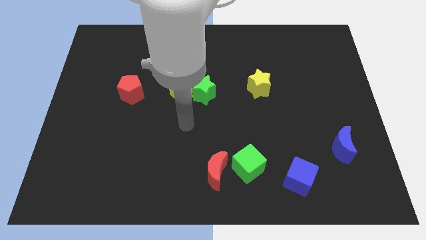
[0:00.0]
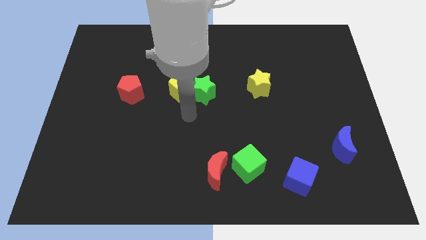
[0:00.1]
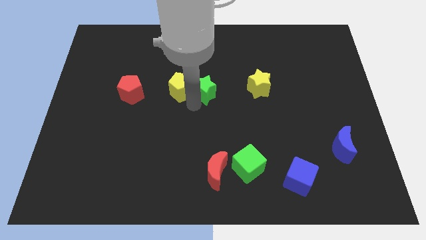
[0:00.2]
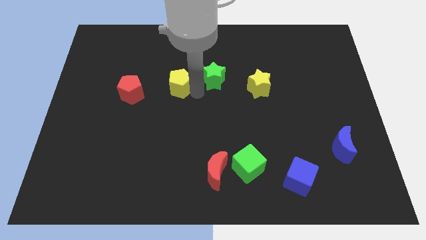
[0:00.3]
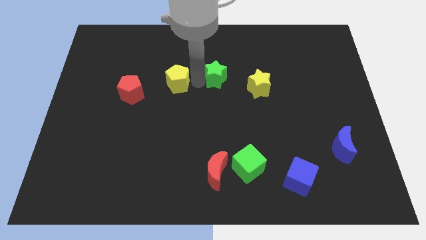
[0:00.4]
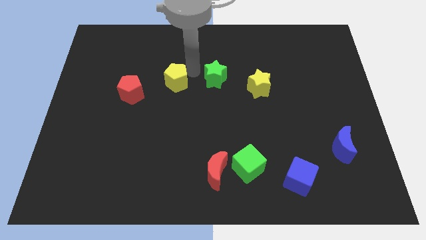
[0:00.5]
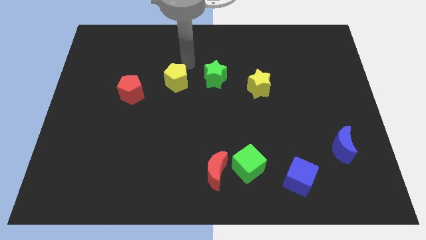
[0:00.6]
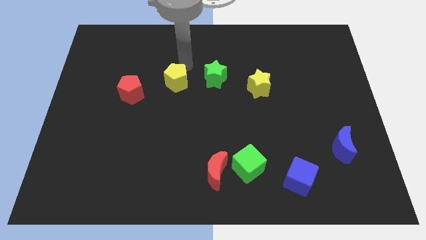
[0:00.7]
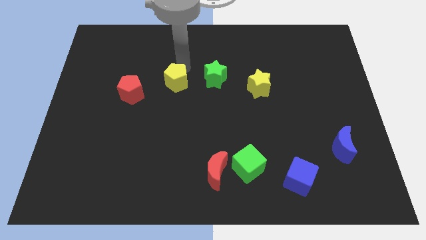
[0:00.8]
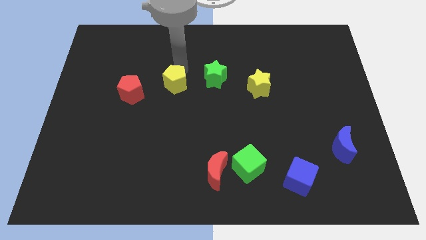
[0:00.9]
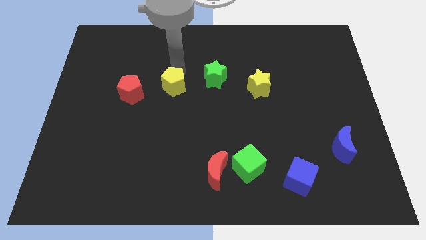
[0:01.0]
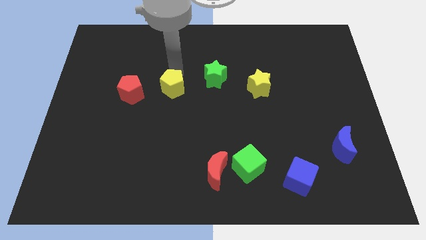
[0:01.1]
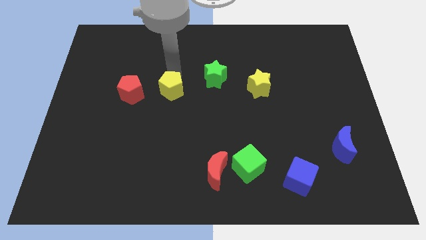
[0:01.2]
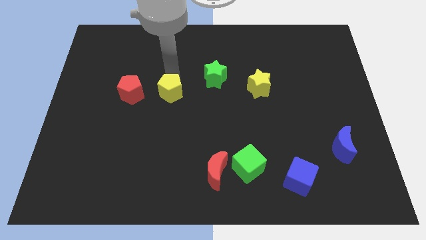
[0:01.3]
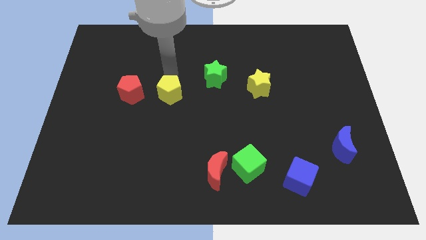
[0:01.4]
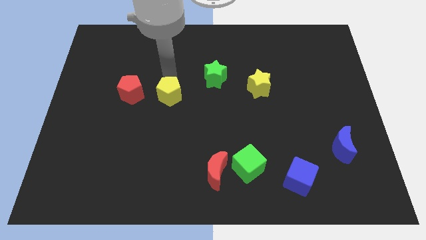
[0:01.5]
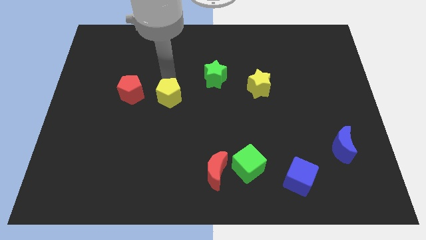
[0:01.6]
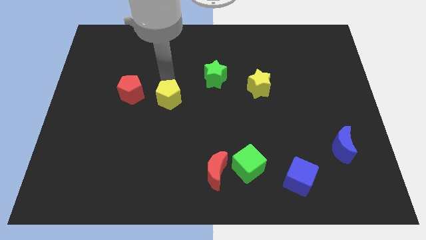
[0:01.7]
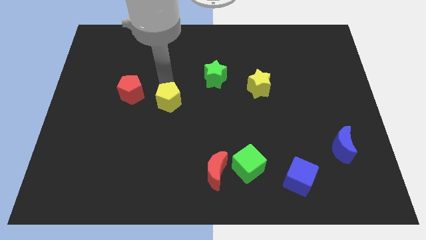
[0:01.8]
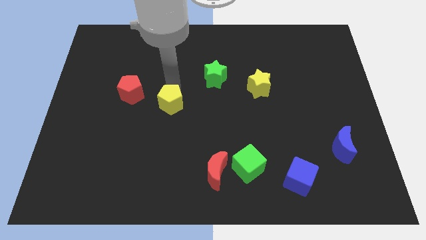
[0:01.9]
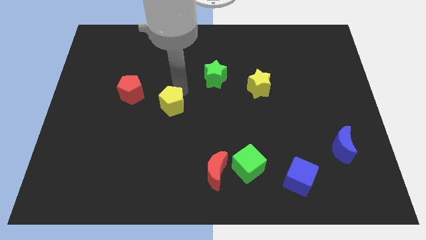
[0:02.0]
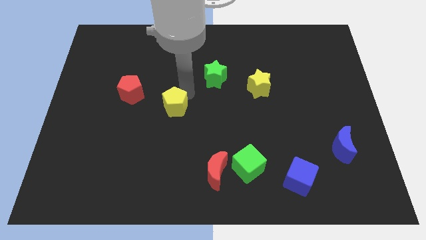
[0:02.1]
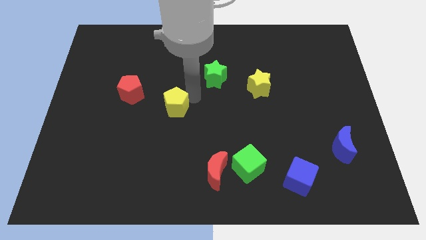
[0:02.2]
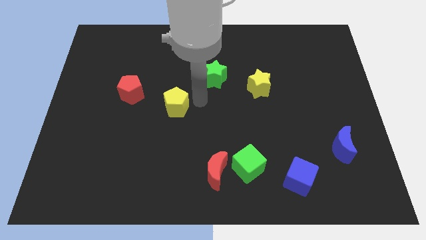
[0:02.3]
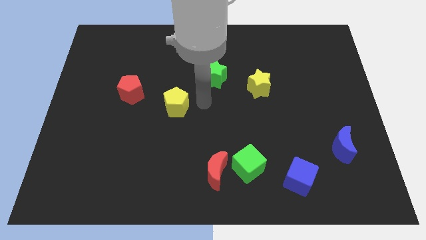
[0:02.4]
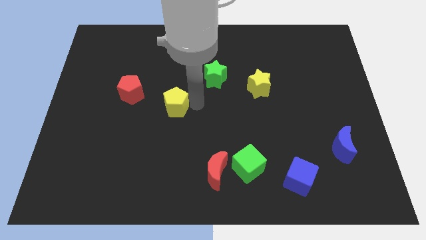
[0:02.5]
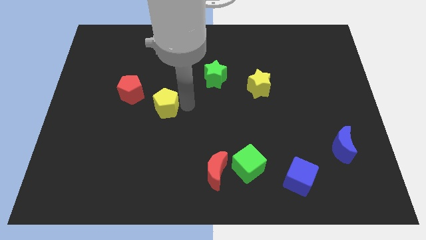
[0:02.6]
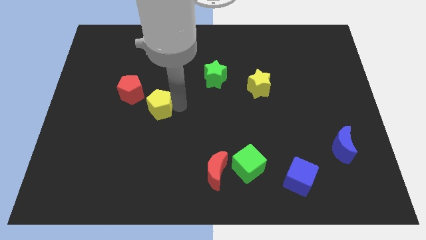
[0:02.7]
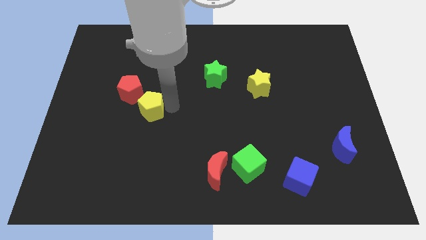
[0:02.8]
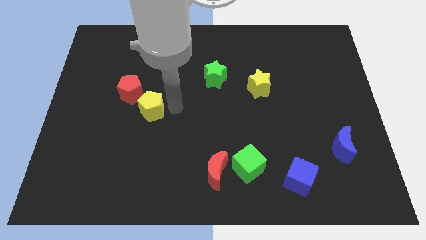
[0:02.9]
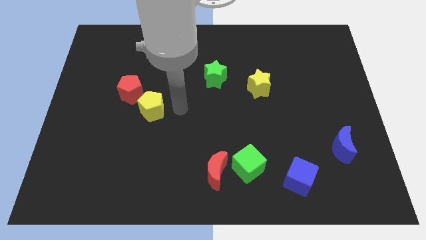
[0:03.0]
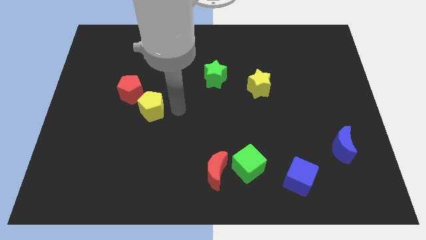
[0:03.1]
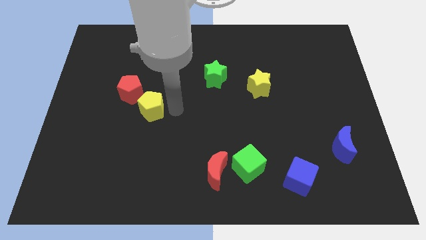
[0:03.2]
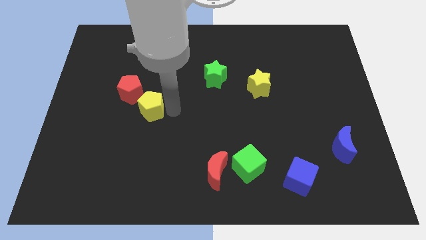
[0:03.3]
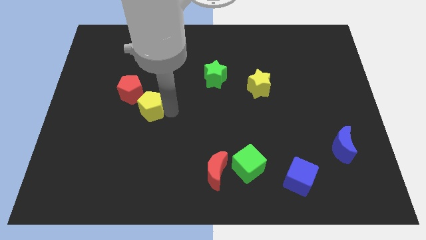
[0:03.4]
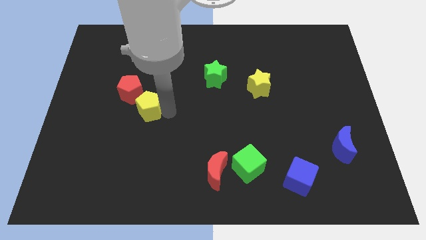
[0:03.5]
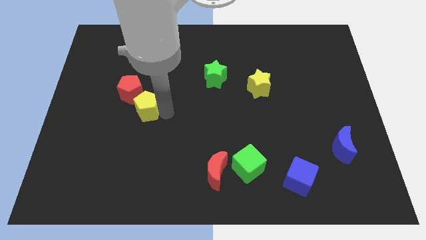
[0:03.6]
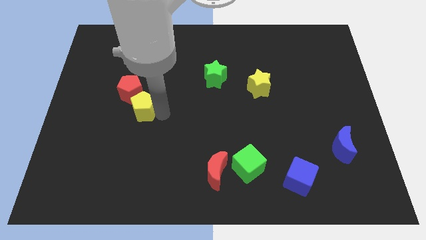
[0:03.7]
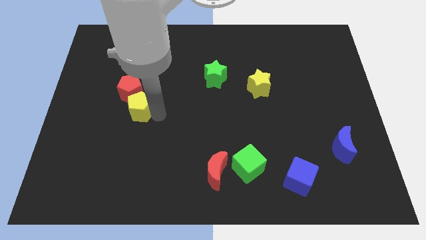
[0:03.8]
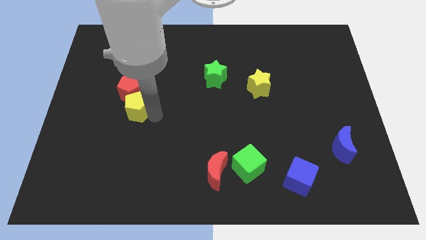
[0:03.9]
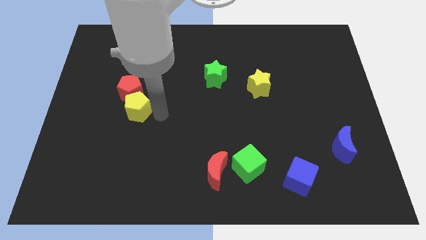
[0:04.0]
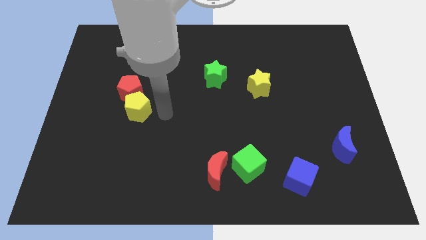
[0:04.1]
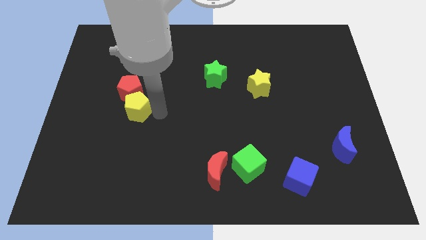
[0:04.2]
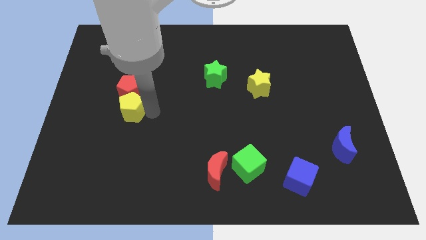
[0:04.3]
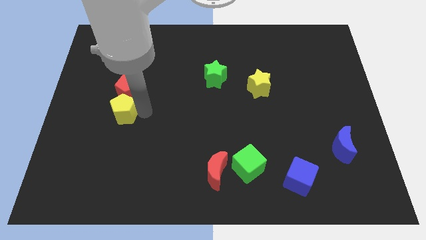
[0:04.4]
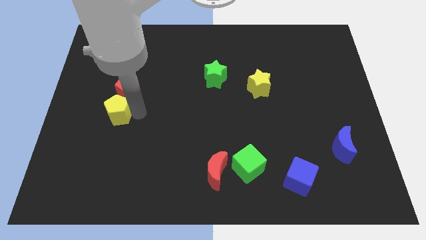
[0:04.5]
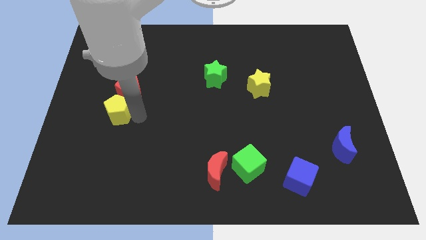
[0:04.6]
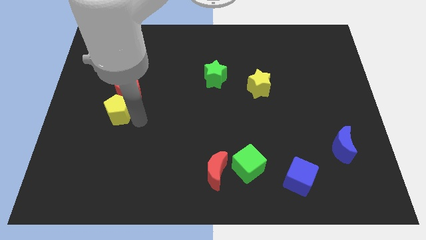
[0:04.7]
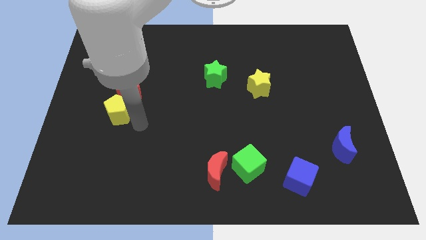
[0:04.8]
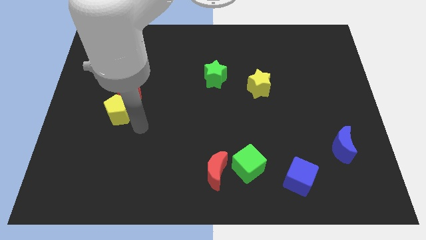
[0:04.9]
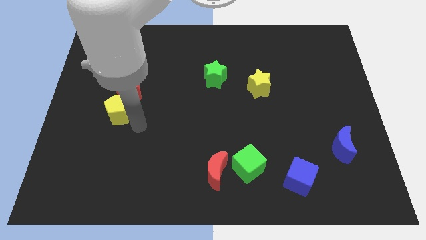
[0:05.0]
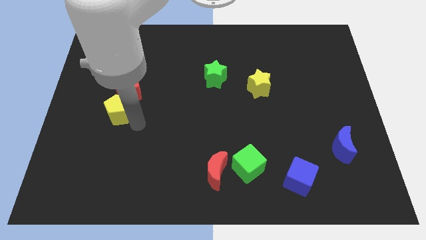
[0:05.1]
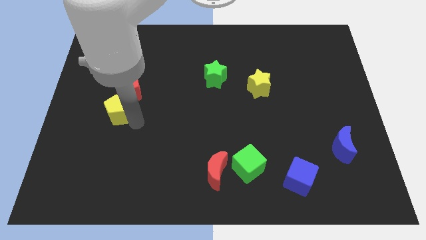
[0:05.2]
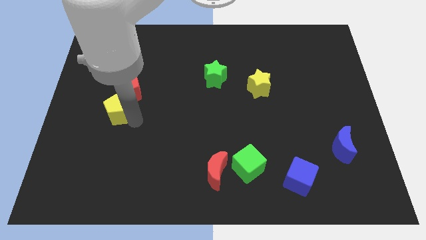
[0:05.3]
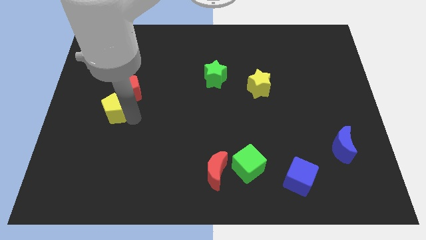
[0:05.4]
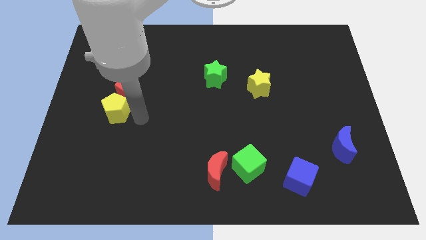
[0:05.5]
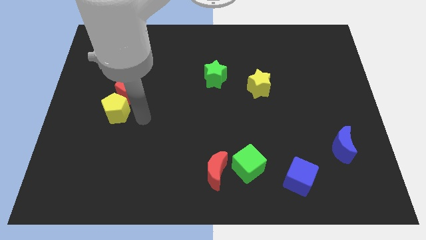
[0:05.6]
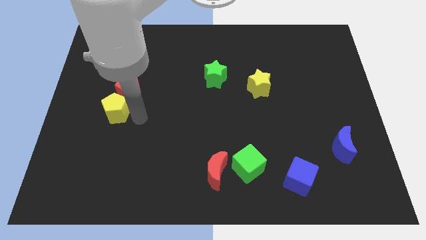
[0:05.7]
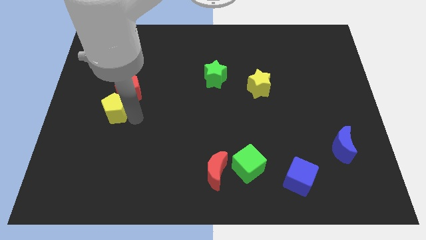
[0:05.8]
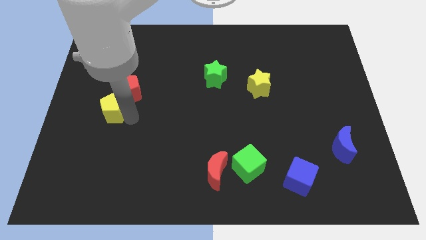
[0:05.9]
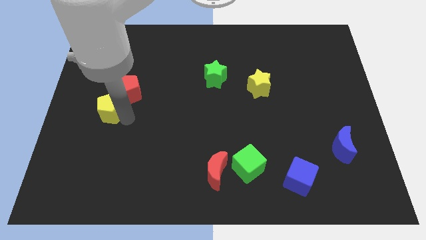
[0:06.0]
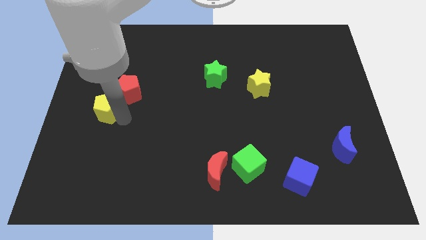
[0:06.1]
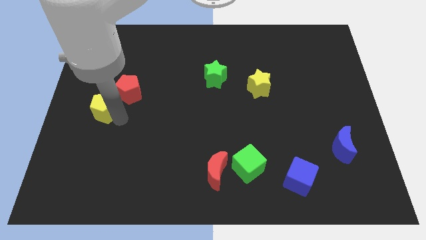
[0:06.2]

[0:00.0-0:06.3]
put the yellow pentagon to the left side
